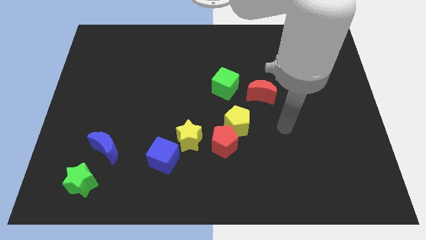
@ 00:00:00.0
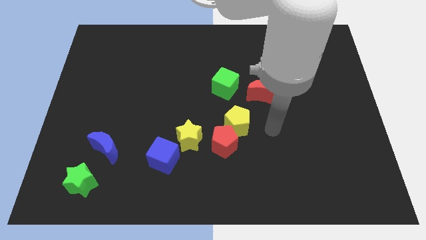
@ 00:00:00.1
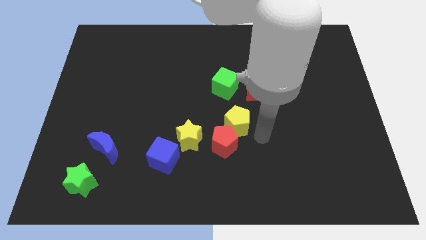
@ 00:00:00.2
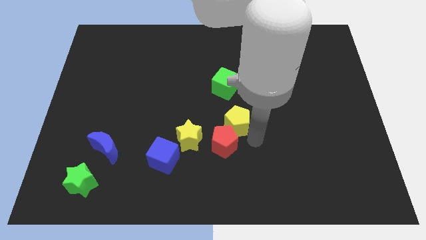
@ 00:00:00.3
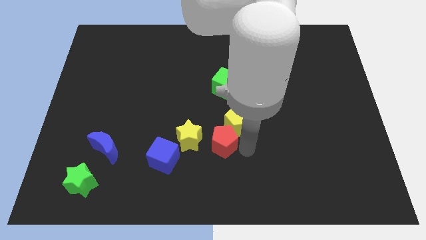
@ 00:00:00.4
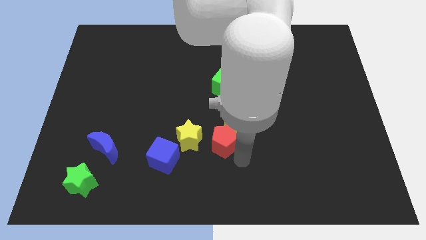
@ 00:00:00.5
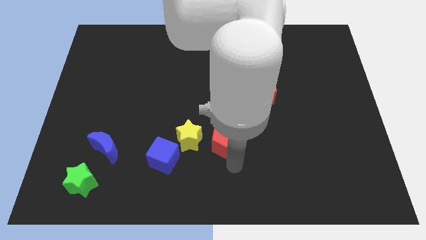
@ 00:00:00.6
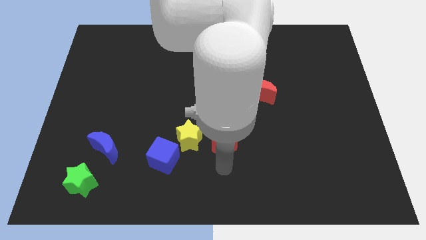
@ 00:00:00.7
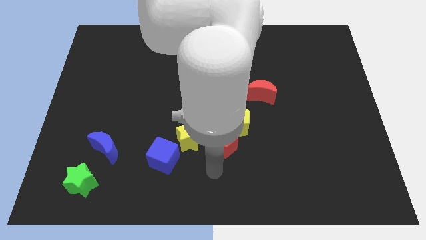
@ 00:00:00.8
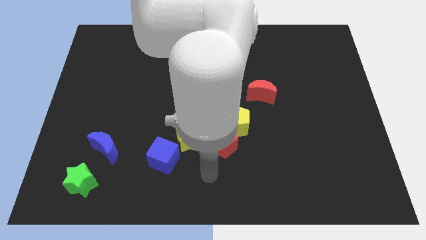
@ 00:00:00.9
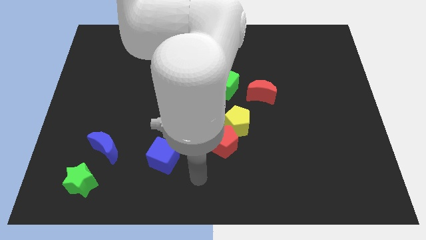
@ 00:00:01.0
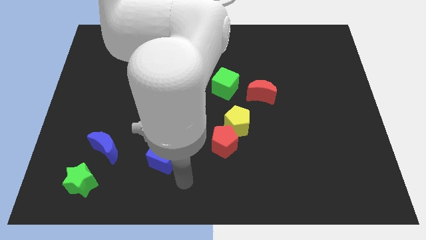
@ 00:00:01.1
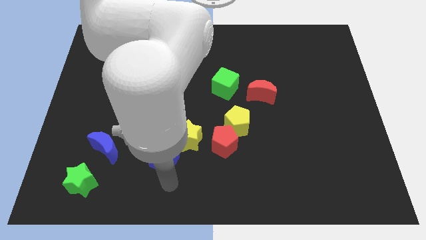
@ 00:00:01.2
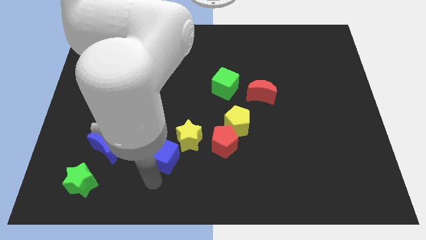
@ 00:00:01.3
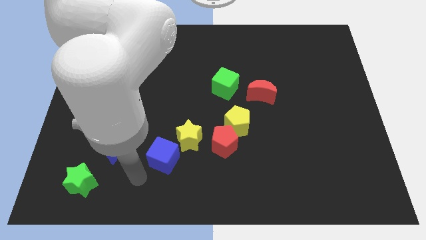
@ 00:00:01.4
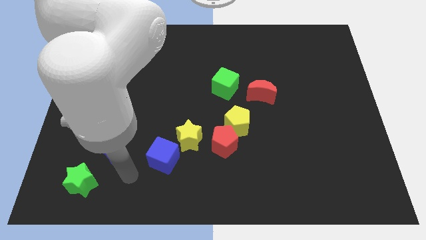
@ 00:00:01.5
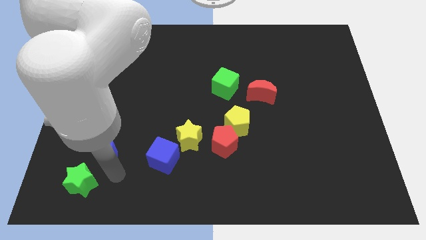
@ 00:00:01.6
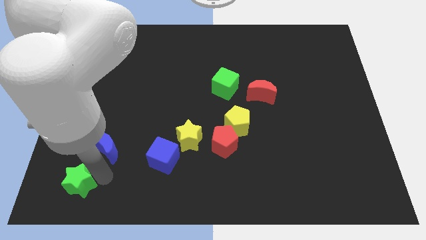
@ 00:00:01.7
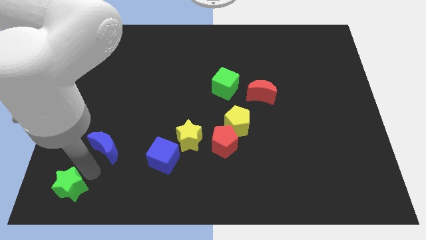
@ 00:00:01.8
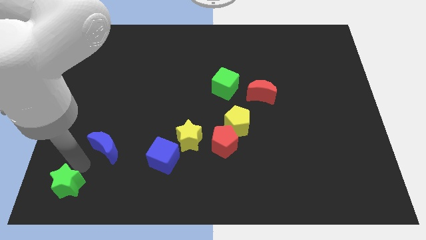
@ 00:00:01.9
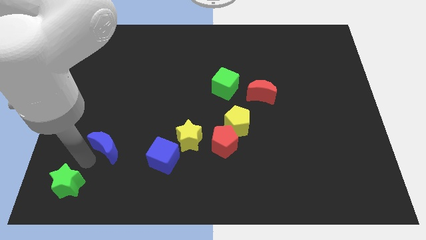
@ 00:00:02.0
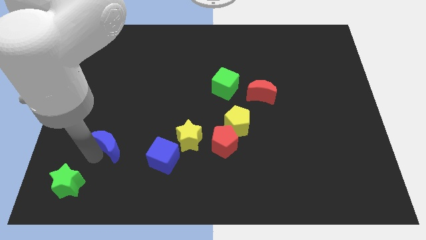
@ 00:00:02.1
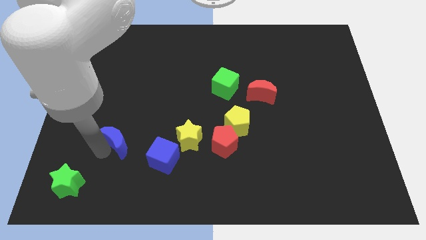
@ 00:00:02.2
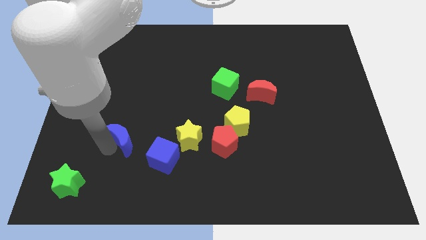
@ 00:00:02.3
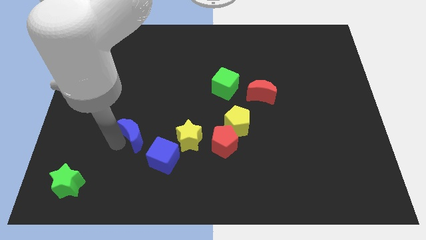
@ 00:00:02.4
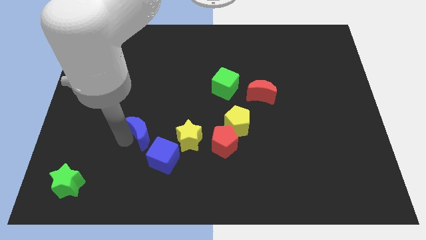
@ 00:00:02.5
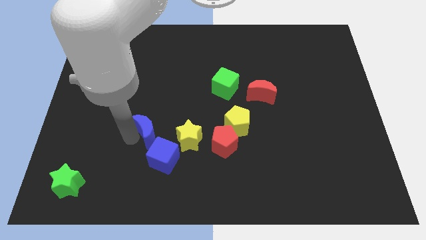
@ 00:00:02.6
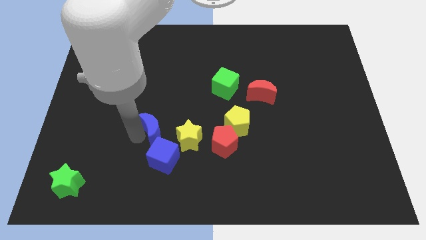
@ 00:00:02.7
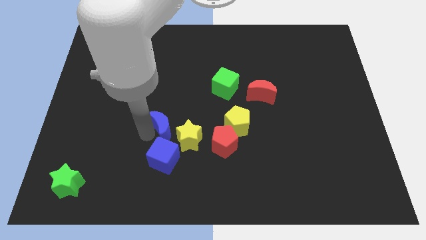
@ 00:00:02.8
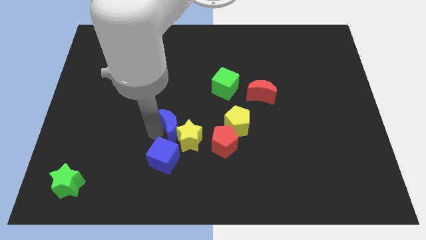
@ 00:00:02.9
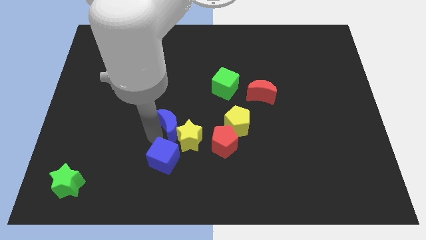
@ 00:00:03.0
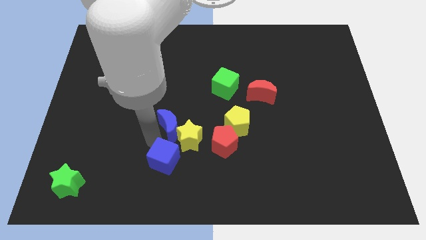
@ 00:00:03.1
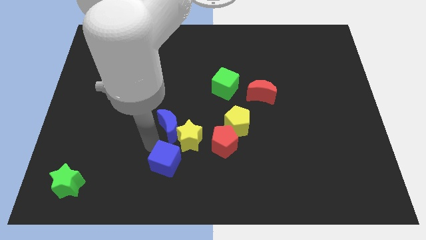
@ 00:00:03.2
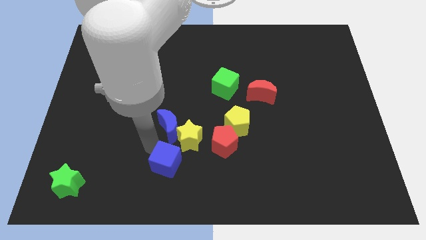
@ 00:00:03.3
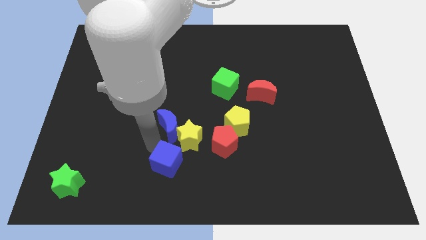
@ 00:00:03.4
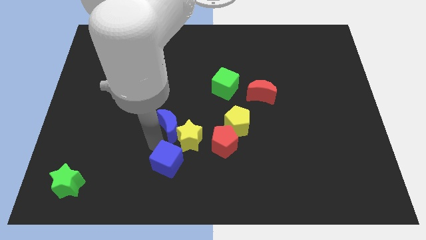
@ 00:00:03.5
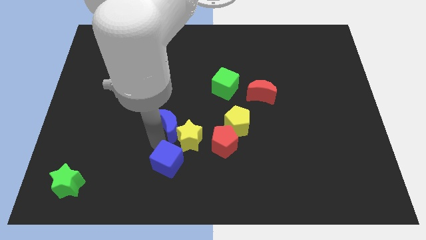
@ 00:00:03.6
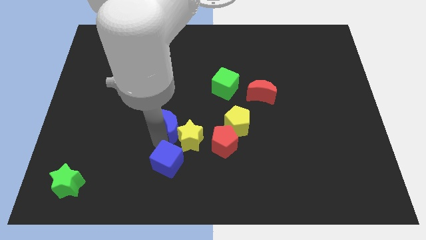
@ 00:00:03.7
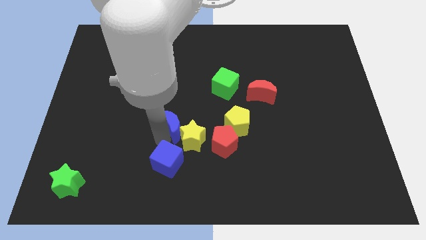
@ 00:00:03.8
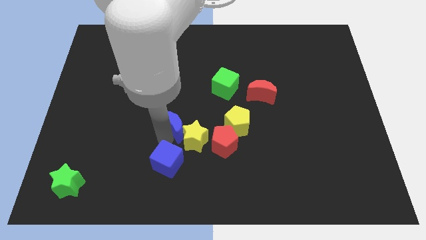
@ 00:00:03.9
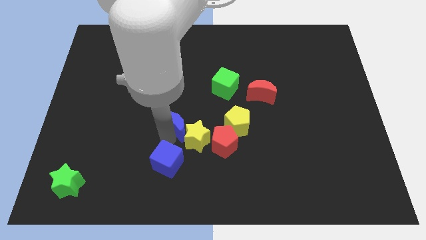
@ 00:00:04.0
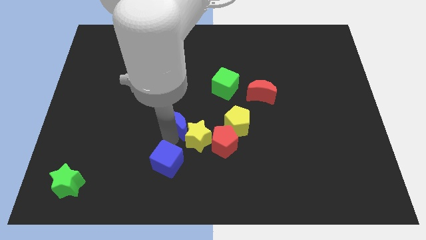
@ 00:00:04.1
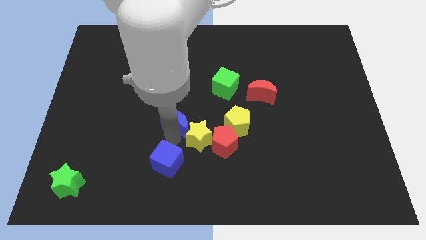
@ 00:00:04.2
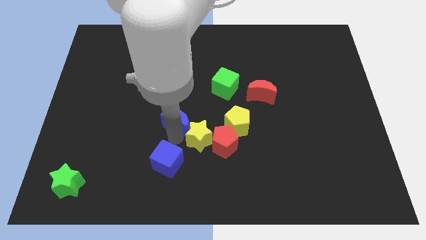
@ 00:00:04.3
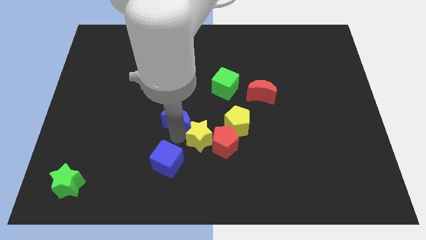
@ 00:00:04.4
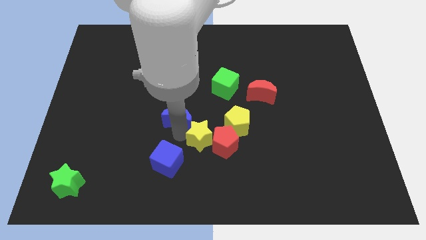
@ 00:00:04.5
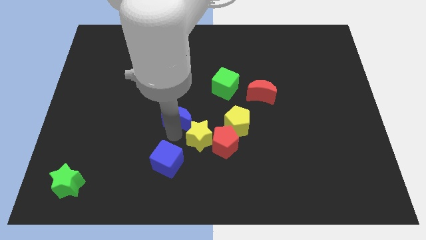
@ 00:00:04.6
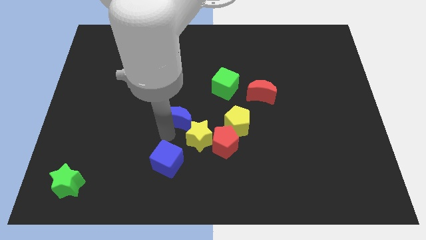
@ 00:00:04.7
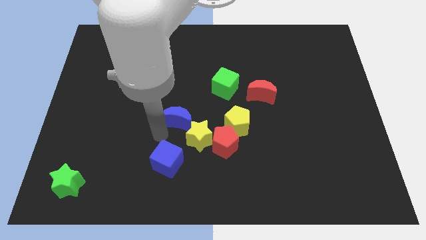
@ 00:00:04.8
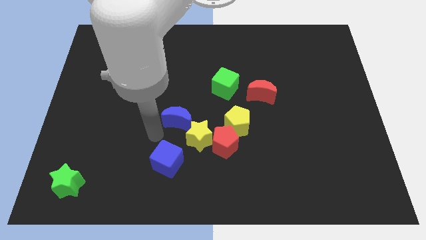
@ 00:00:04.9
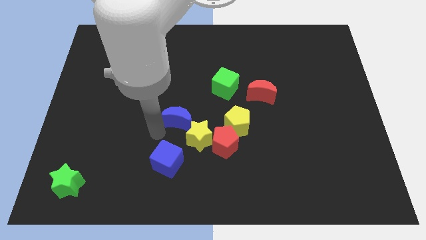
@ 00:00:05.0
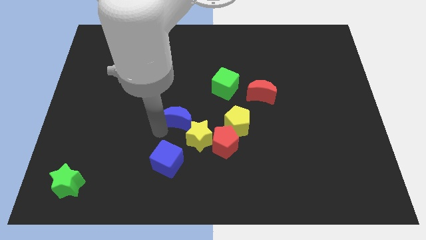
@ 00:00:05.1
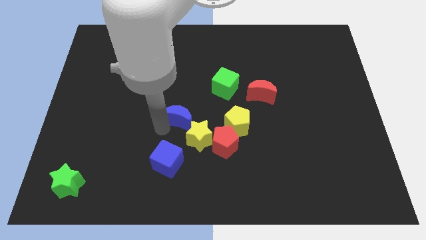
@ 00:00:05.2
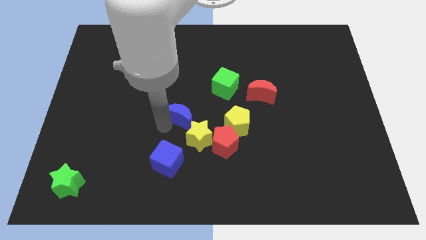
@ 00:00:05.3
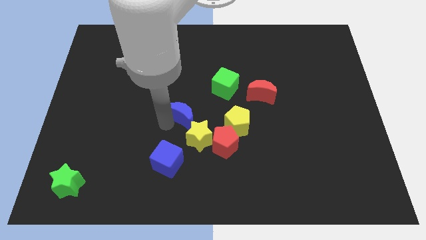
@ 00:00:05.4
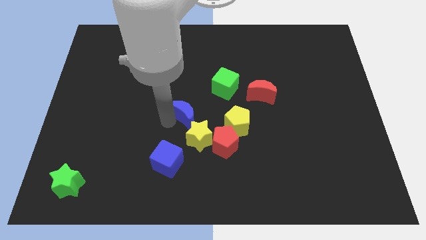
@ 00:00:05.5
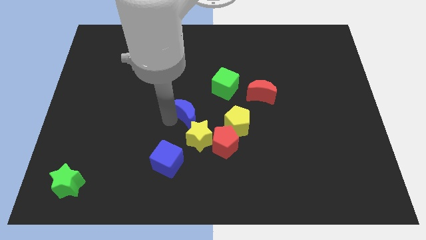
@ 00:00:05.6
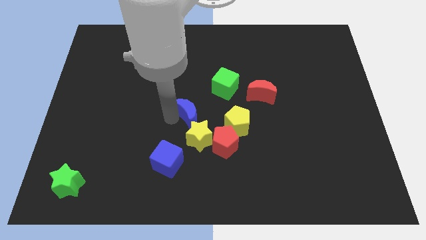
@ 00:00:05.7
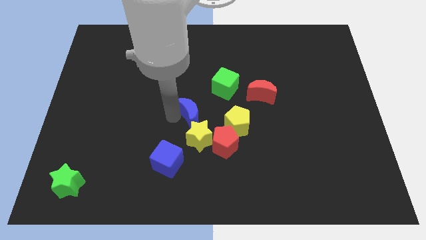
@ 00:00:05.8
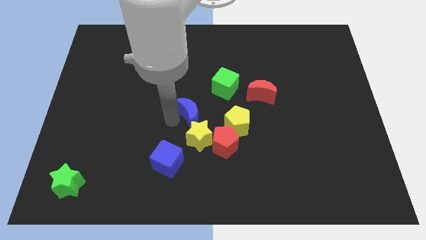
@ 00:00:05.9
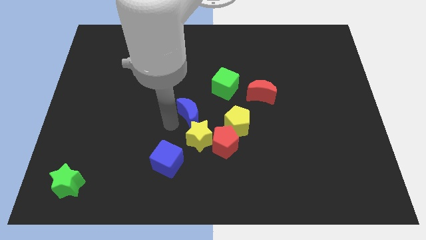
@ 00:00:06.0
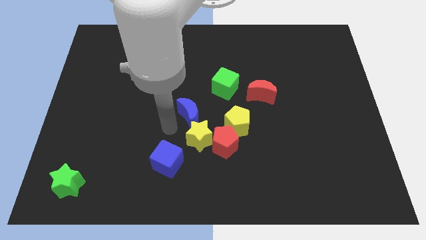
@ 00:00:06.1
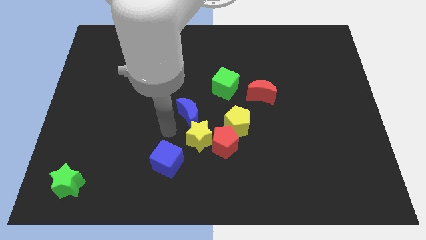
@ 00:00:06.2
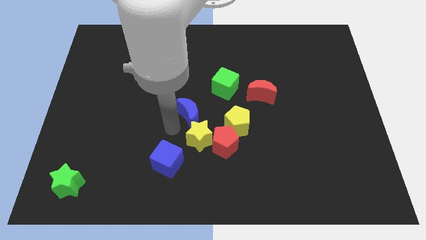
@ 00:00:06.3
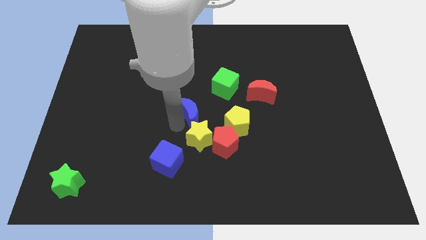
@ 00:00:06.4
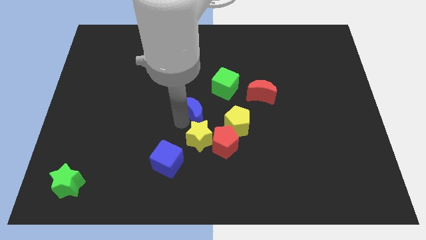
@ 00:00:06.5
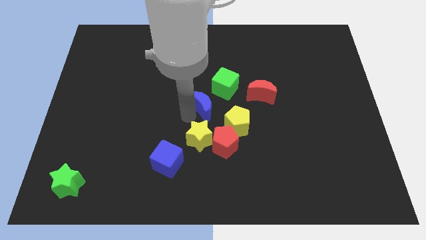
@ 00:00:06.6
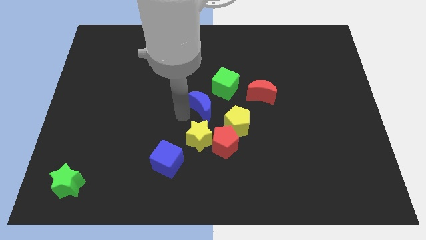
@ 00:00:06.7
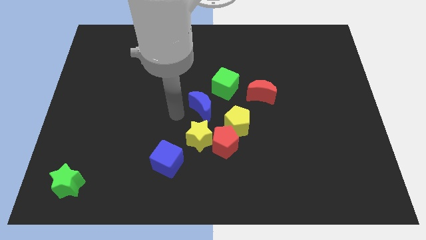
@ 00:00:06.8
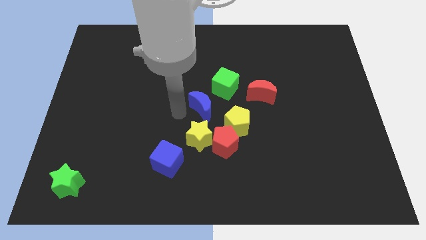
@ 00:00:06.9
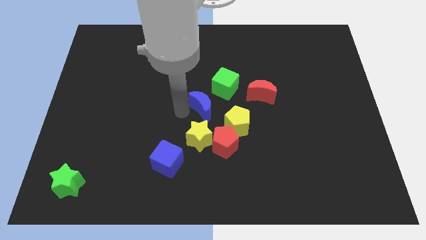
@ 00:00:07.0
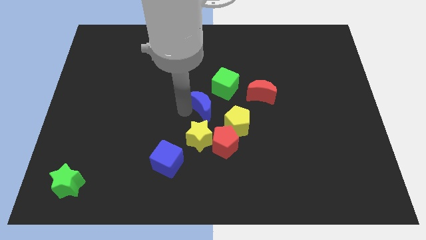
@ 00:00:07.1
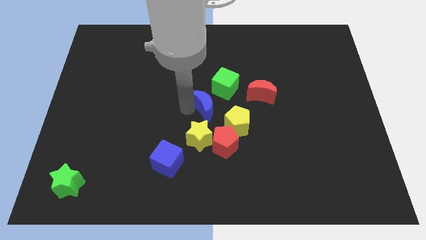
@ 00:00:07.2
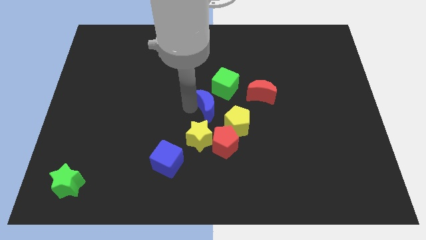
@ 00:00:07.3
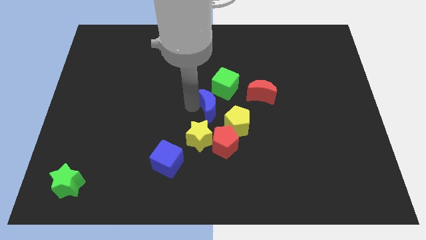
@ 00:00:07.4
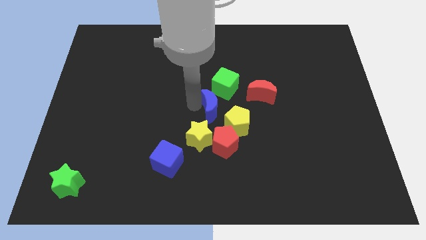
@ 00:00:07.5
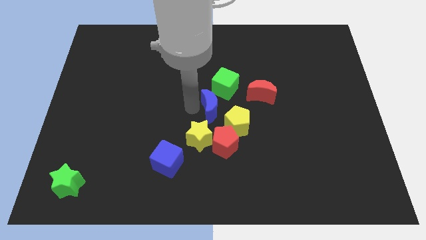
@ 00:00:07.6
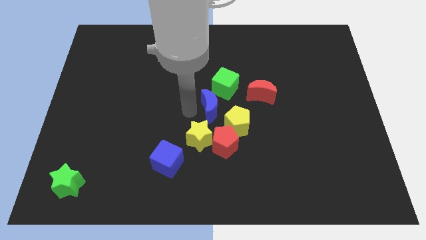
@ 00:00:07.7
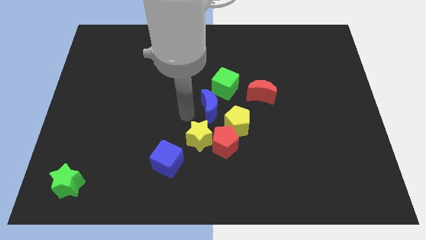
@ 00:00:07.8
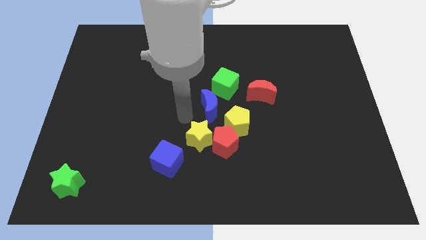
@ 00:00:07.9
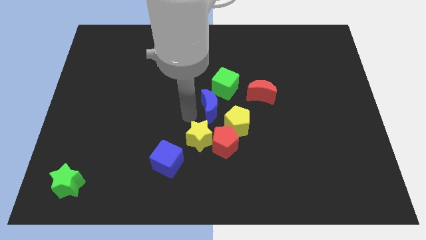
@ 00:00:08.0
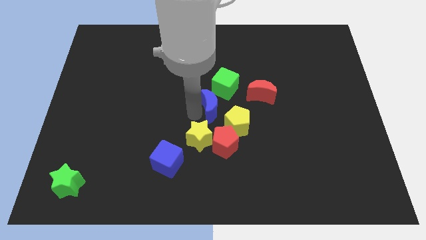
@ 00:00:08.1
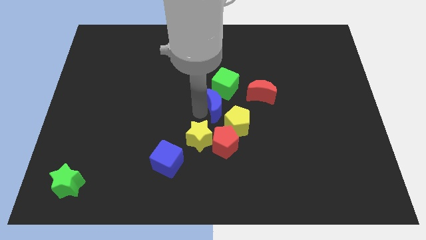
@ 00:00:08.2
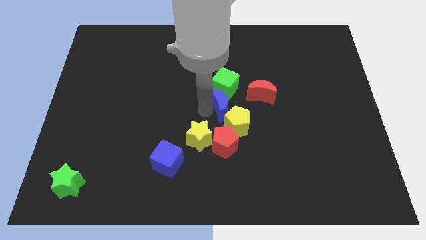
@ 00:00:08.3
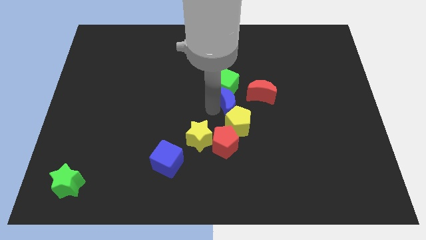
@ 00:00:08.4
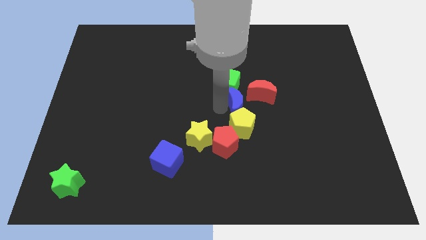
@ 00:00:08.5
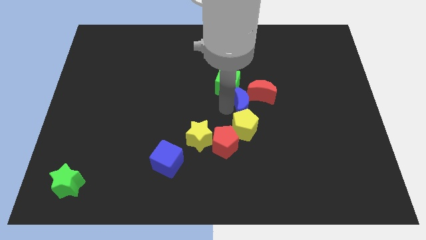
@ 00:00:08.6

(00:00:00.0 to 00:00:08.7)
push the blue moon towards the red moon
